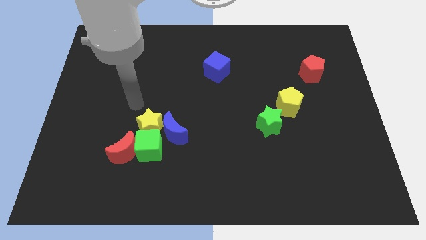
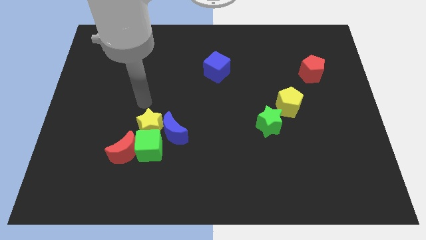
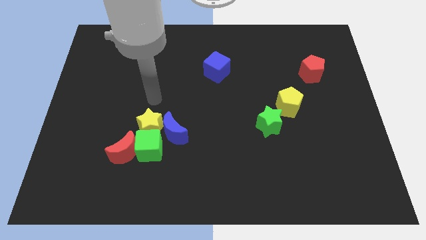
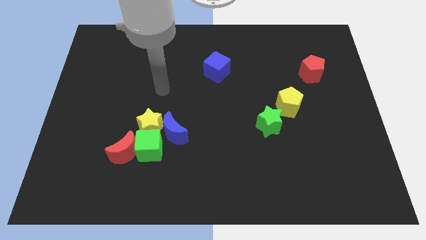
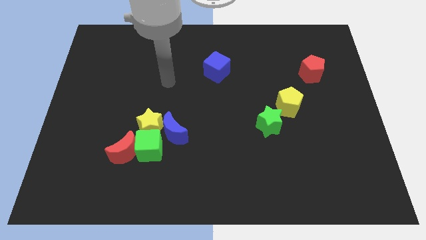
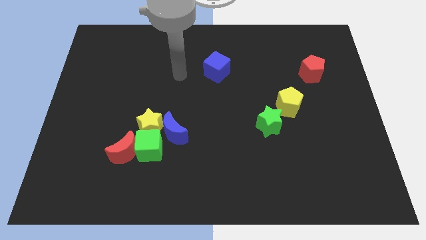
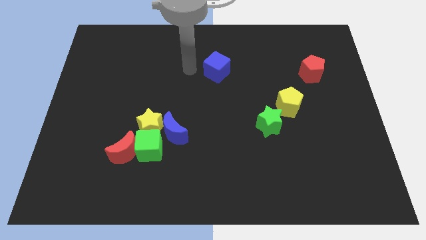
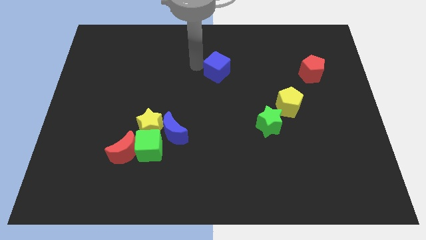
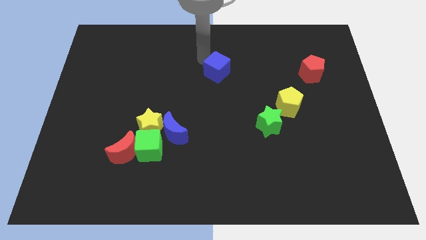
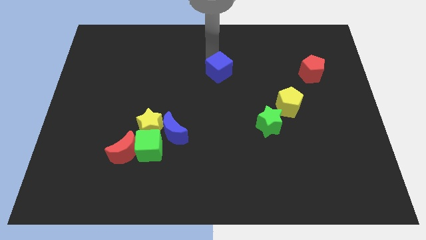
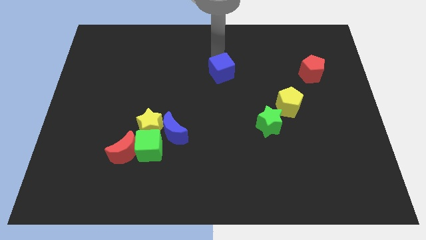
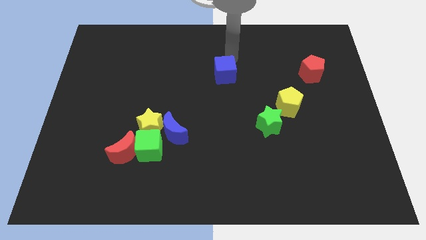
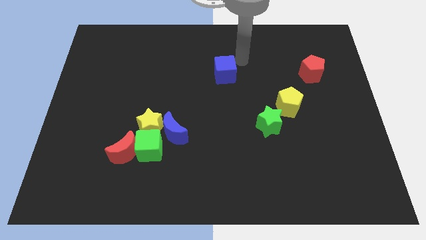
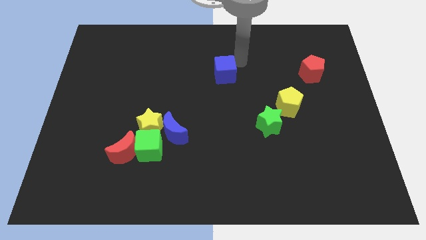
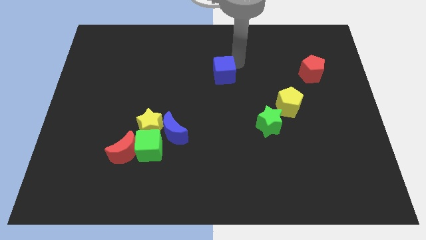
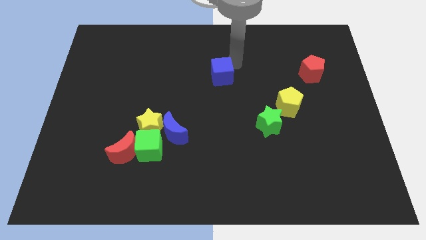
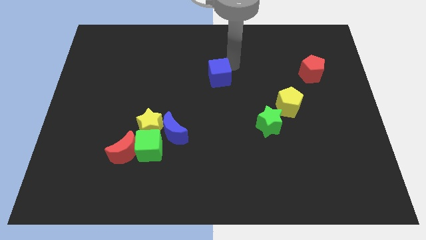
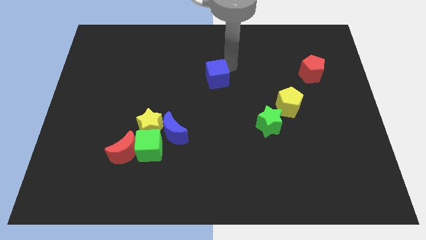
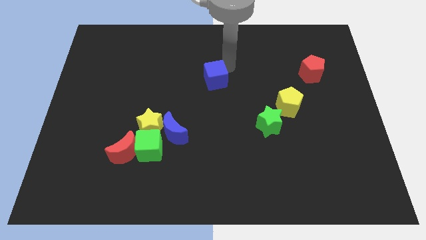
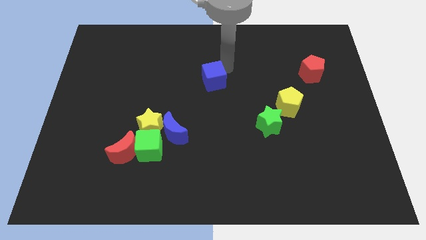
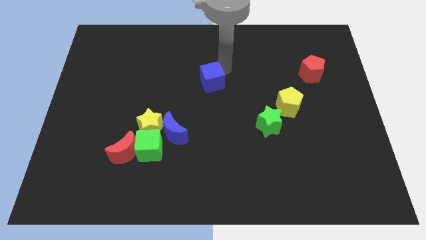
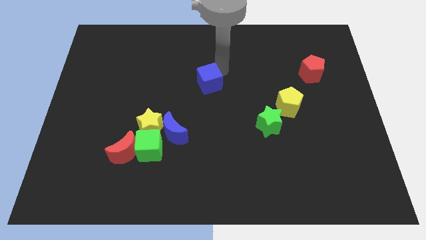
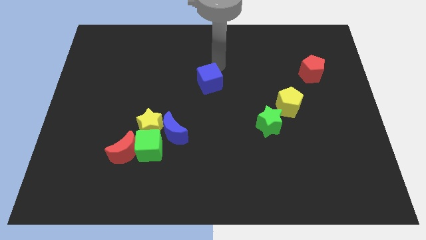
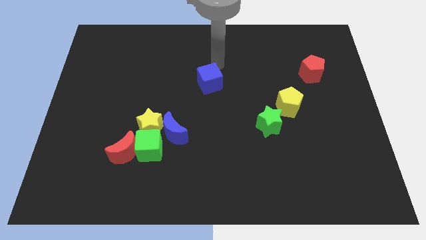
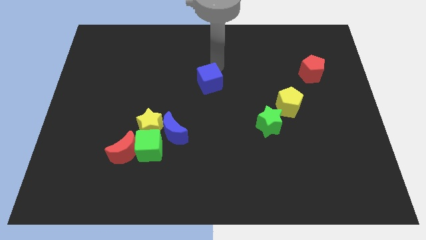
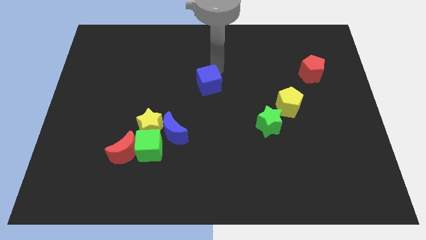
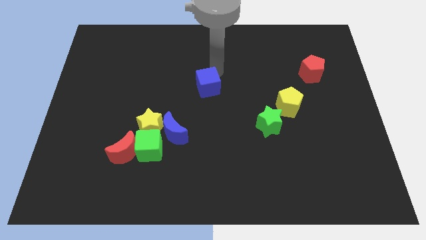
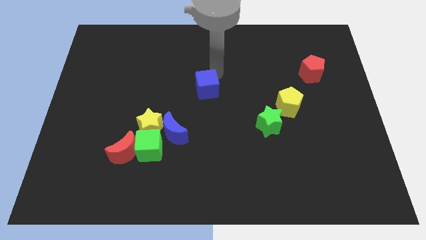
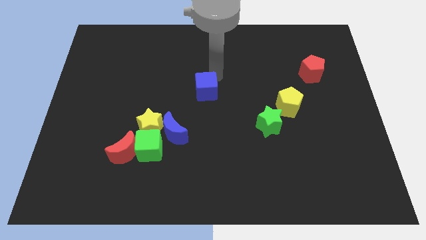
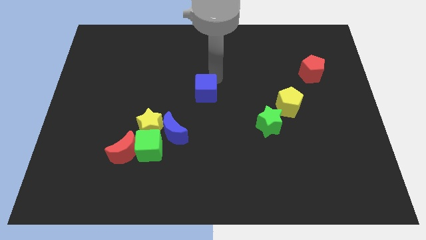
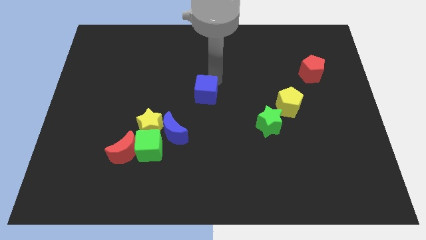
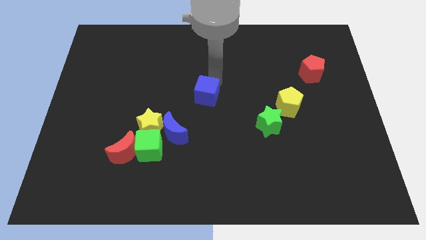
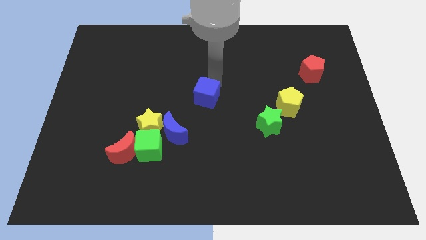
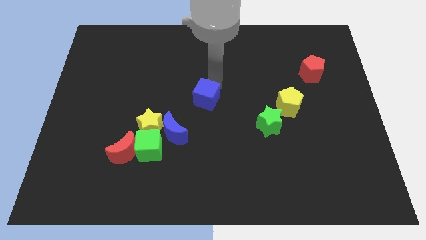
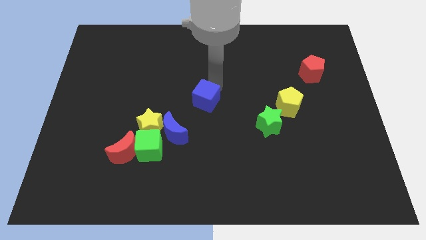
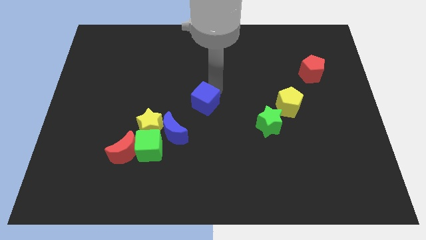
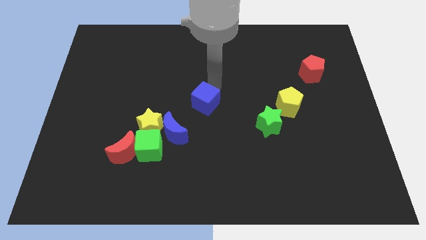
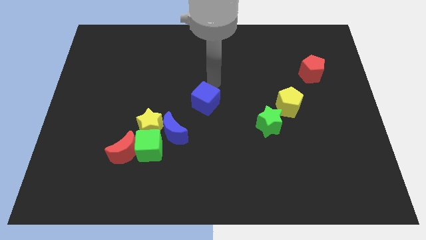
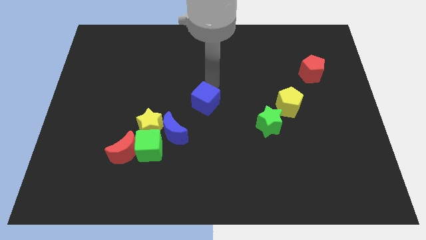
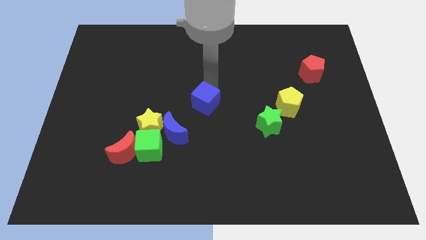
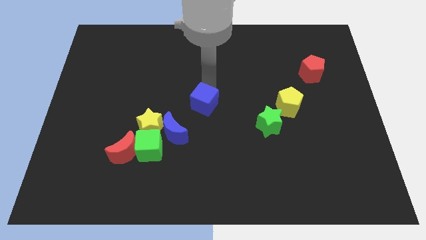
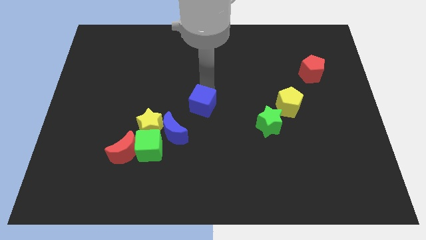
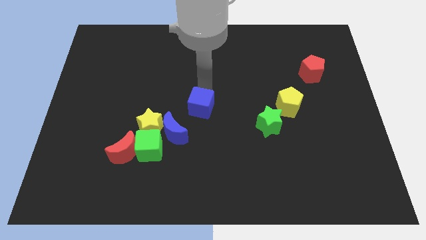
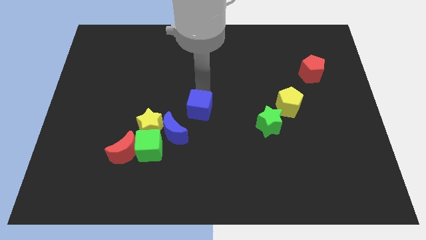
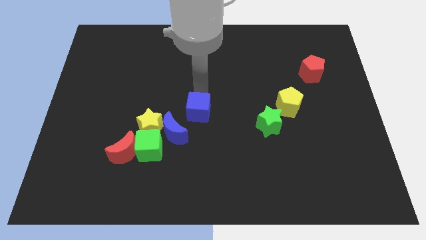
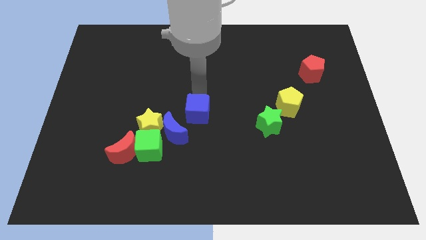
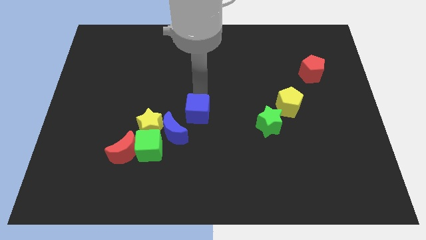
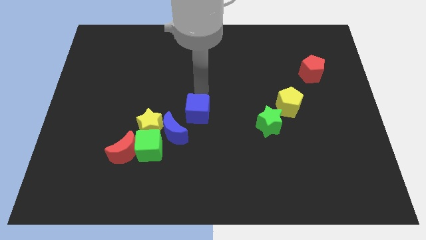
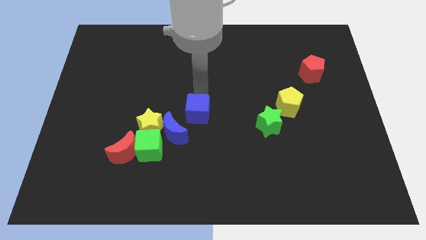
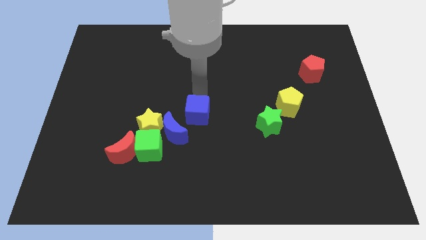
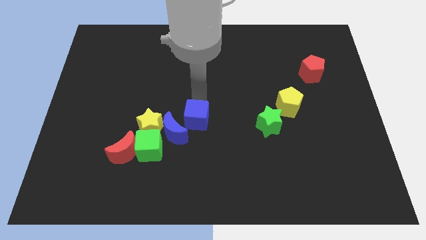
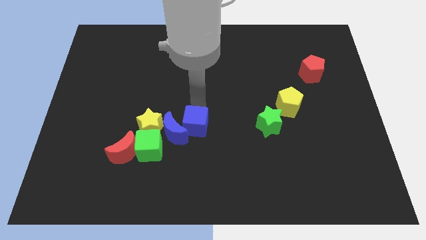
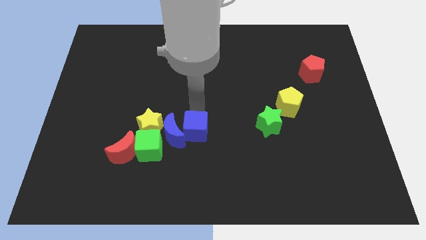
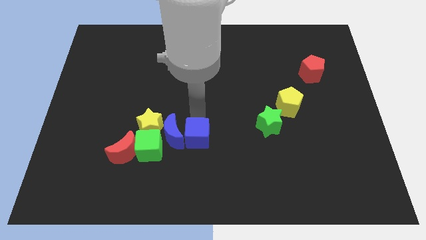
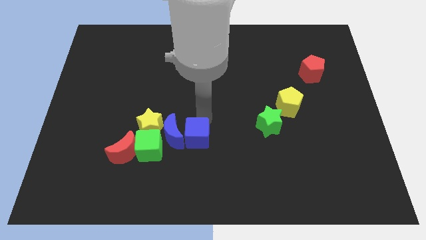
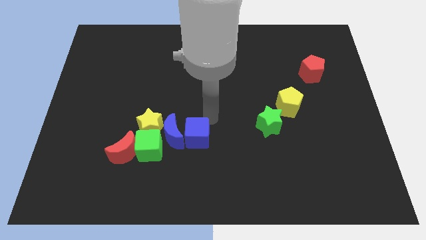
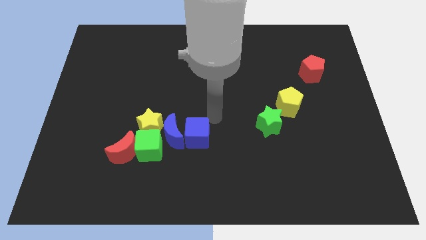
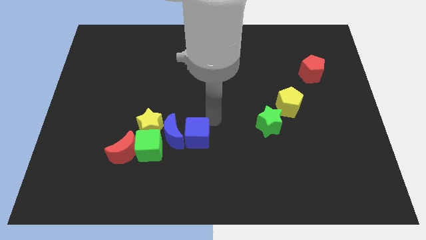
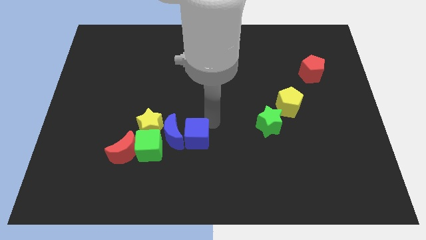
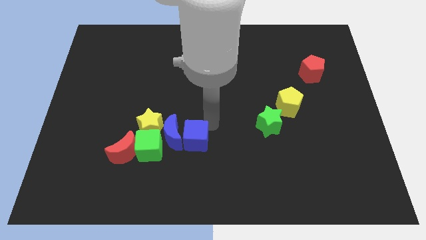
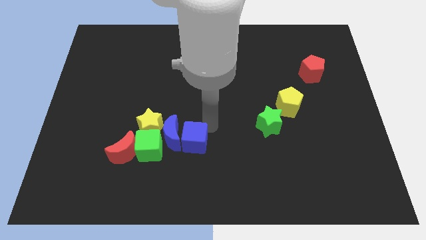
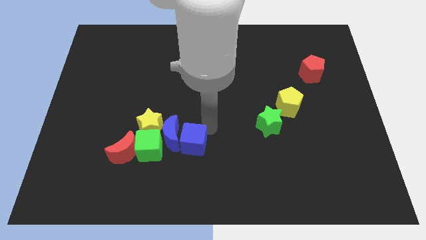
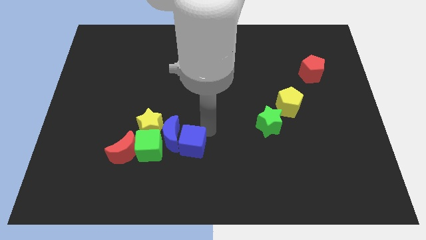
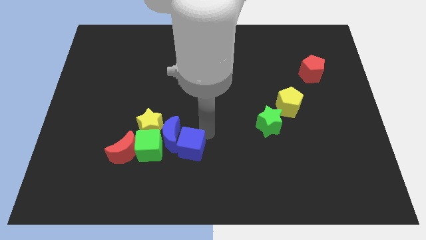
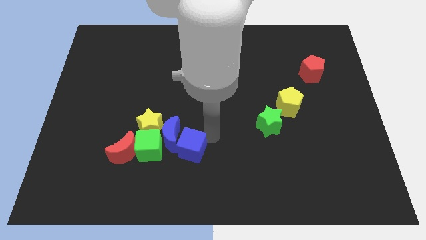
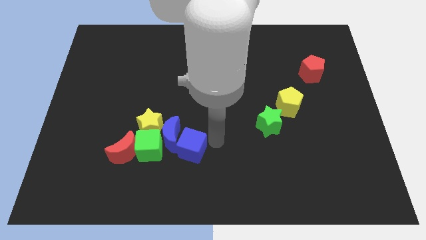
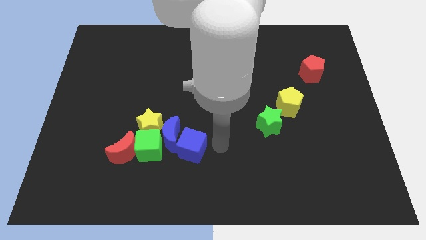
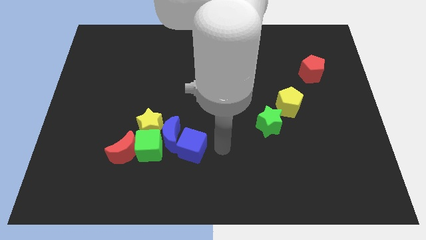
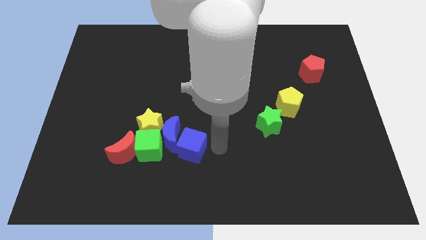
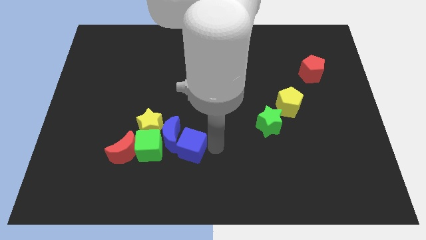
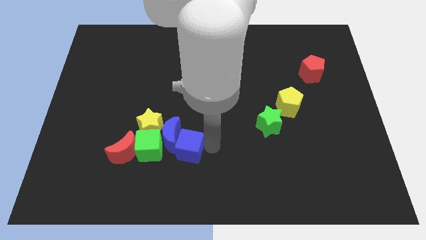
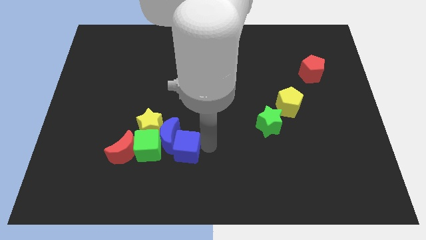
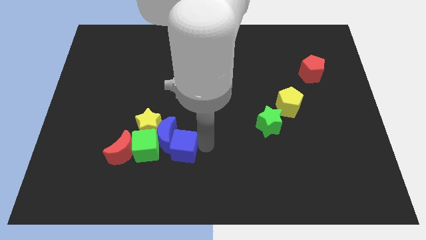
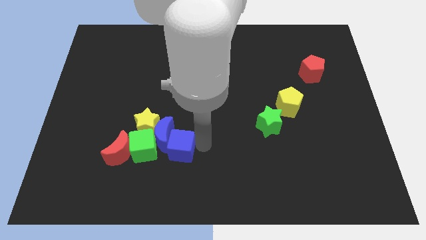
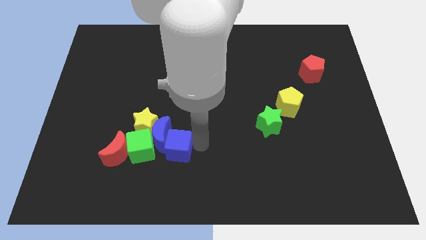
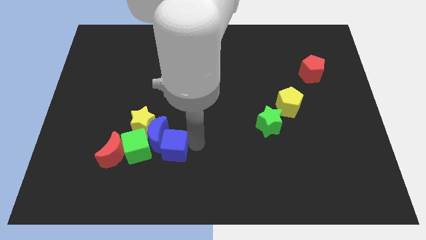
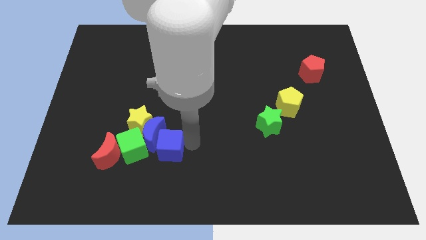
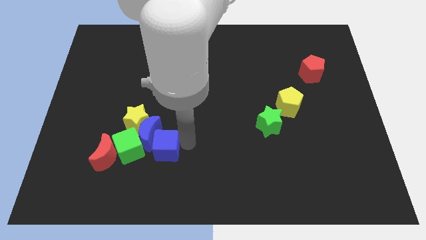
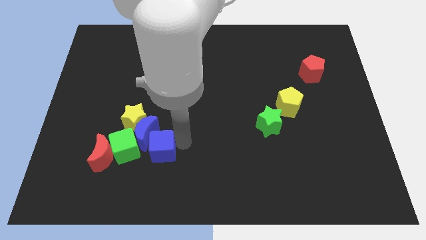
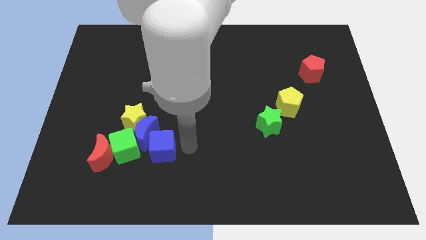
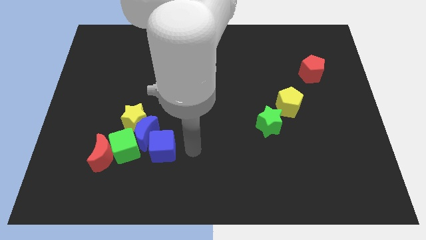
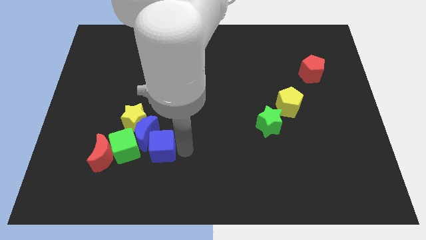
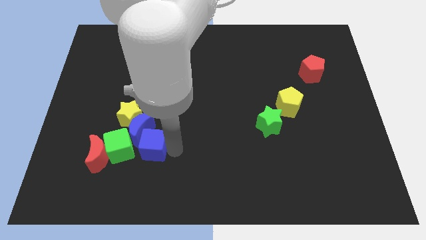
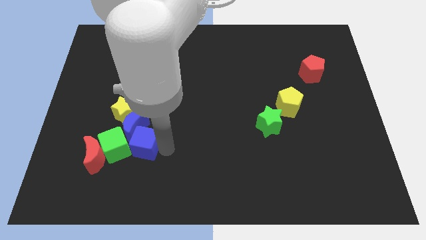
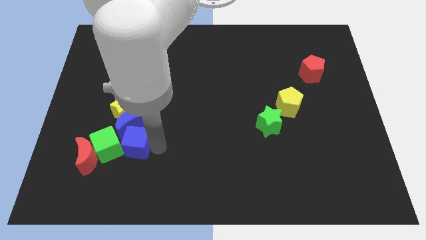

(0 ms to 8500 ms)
slide the blue cube to the green cube
